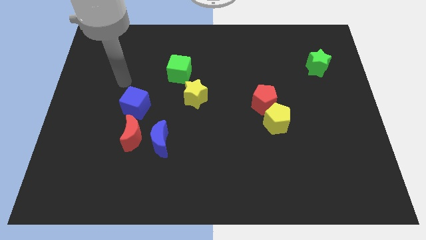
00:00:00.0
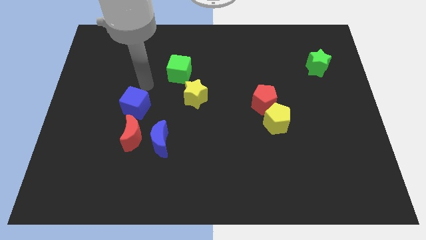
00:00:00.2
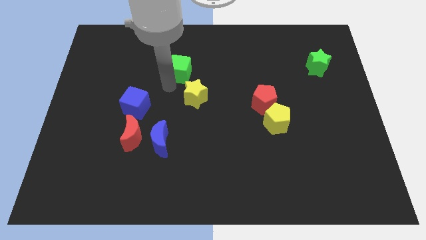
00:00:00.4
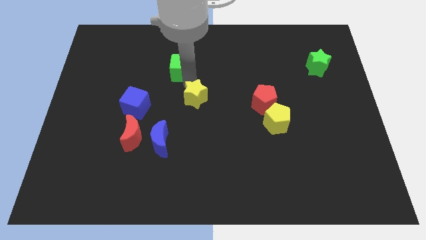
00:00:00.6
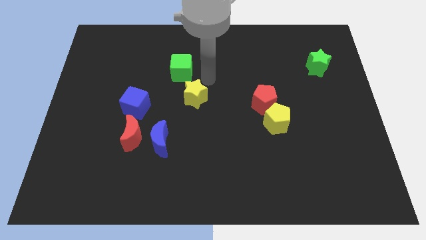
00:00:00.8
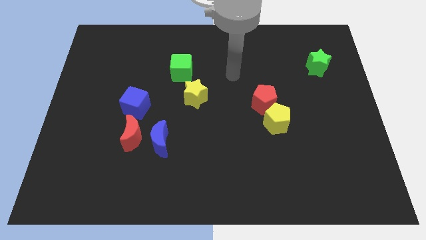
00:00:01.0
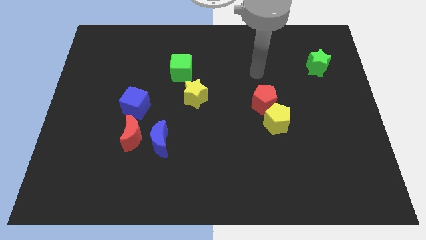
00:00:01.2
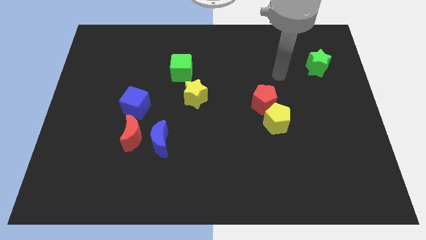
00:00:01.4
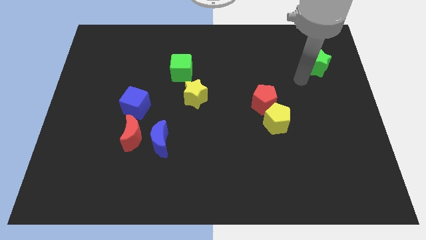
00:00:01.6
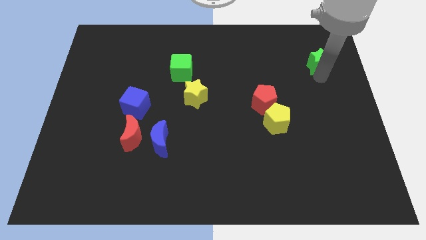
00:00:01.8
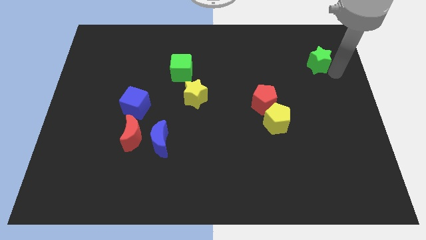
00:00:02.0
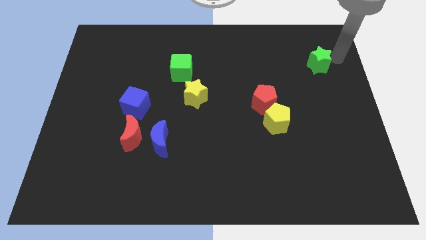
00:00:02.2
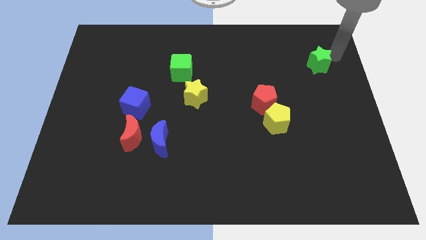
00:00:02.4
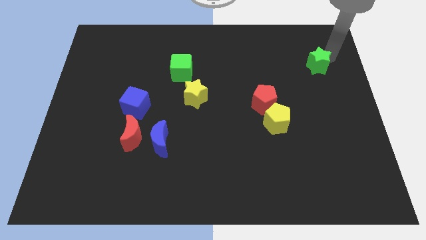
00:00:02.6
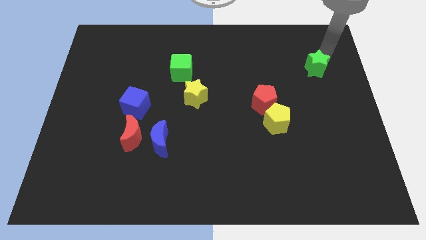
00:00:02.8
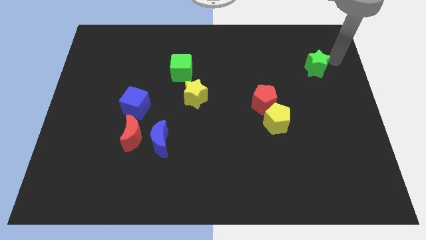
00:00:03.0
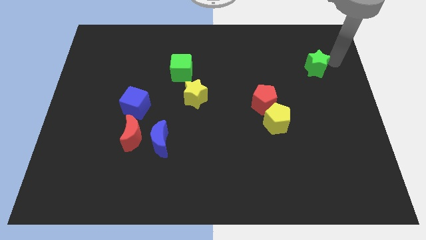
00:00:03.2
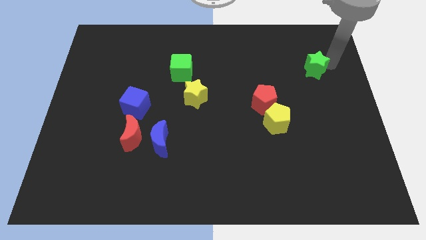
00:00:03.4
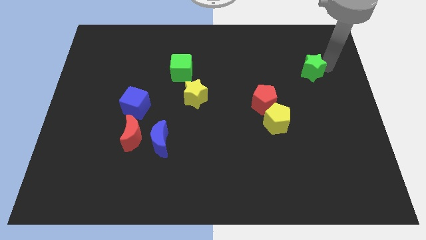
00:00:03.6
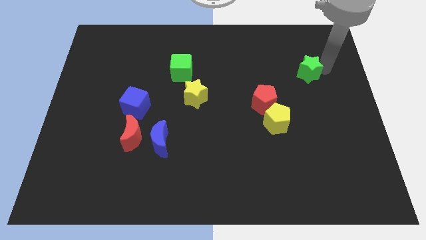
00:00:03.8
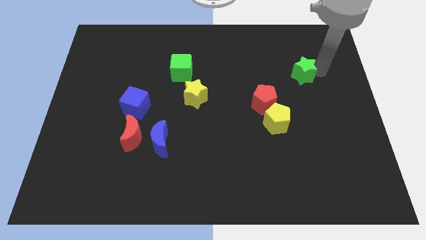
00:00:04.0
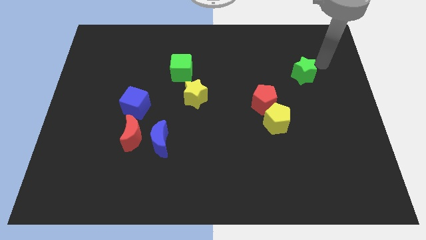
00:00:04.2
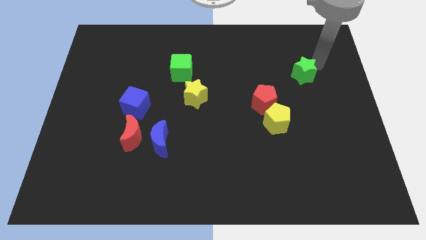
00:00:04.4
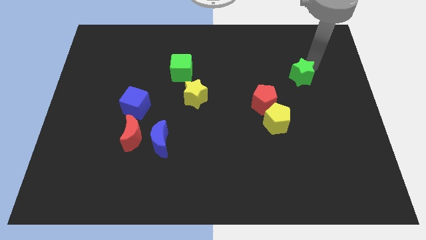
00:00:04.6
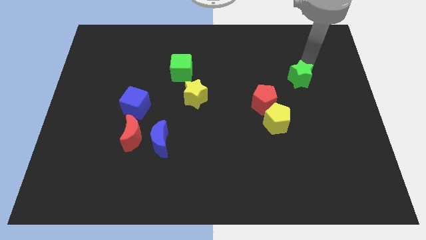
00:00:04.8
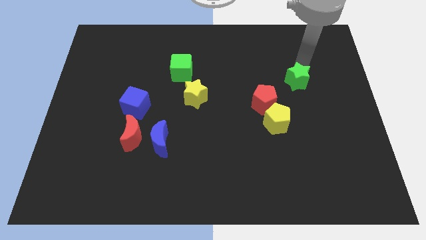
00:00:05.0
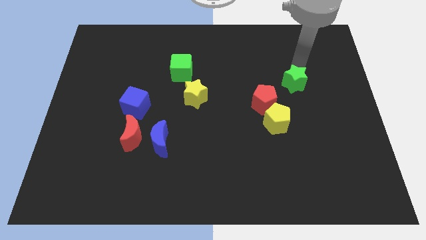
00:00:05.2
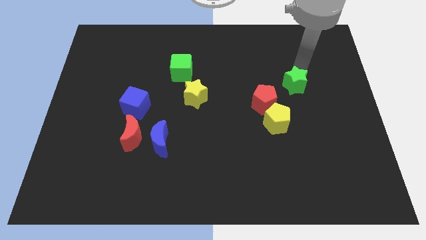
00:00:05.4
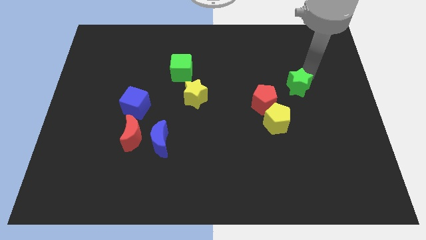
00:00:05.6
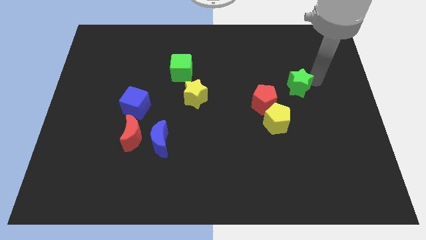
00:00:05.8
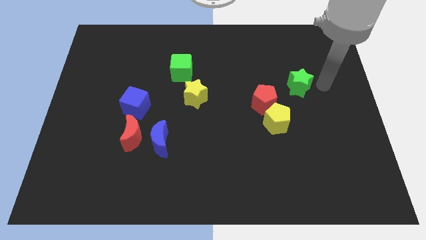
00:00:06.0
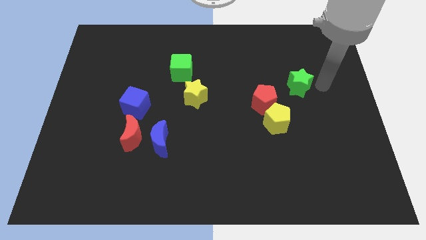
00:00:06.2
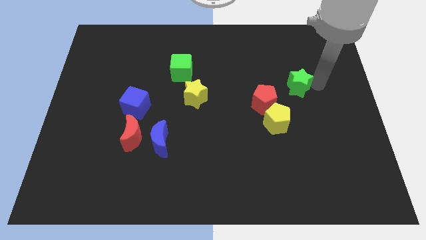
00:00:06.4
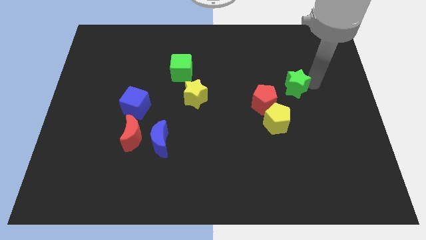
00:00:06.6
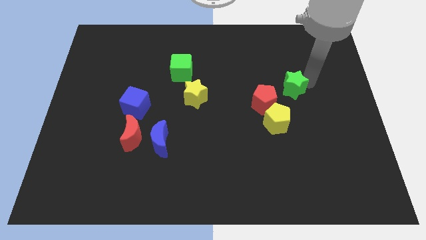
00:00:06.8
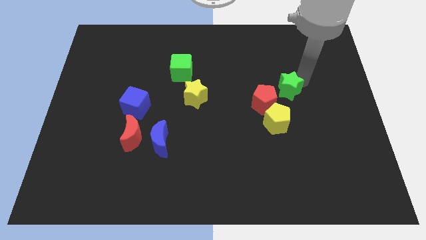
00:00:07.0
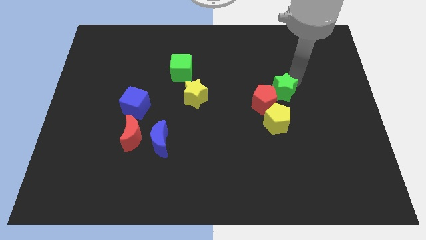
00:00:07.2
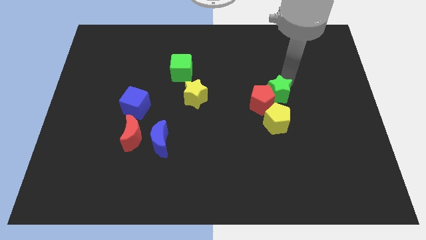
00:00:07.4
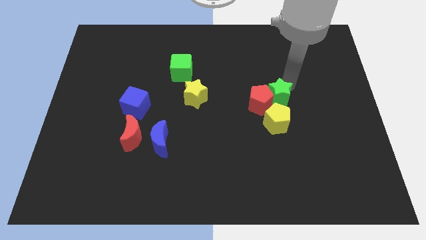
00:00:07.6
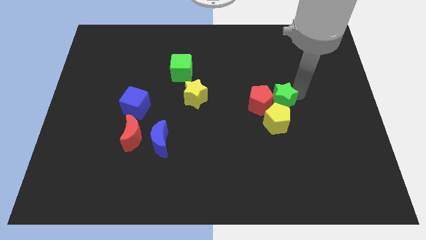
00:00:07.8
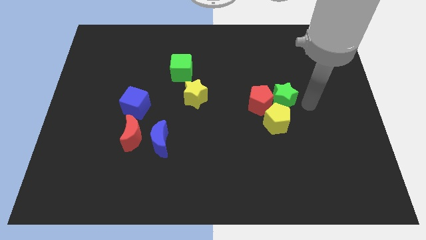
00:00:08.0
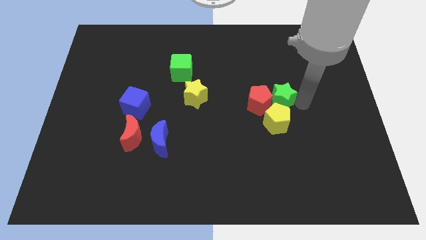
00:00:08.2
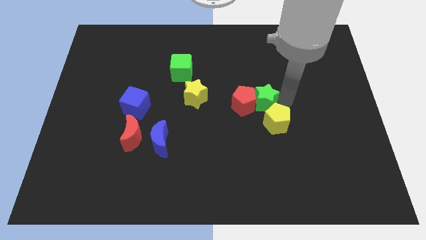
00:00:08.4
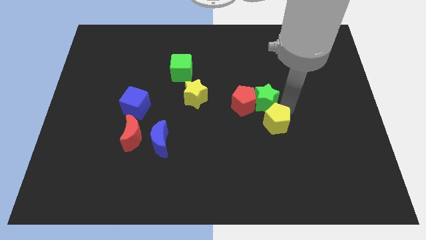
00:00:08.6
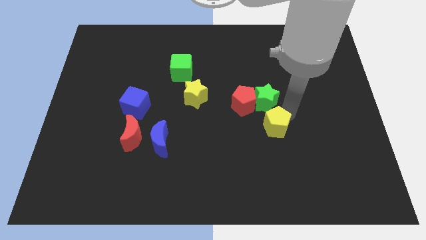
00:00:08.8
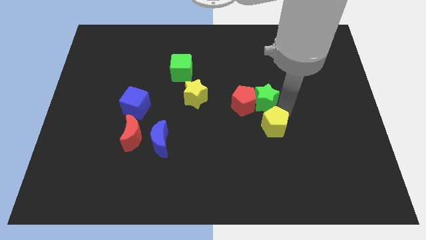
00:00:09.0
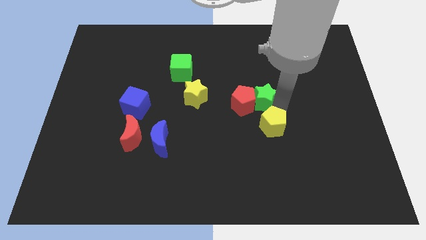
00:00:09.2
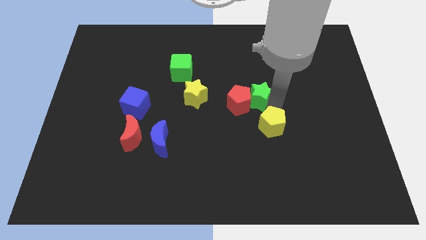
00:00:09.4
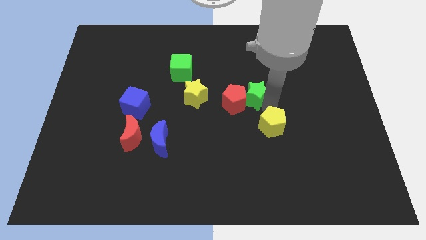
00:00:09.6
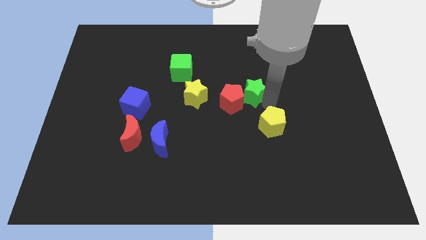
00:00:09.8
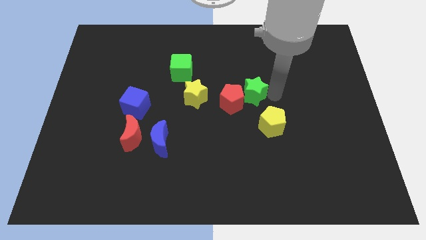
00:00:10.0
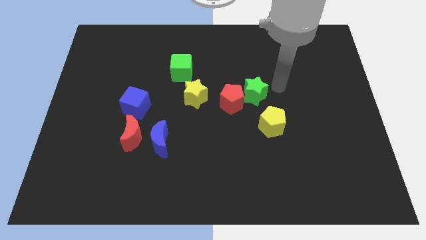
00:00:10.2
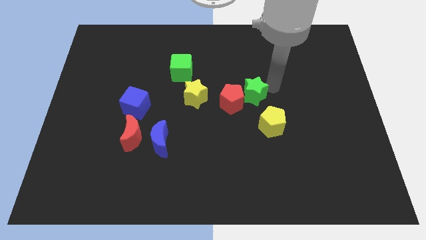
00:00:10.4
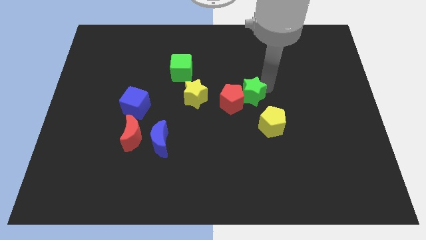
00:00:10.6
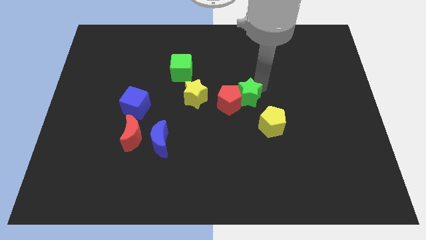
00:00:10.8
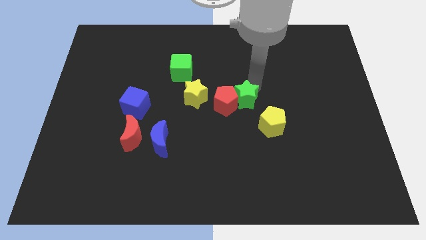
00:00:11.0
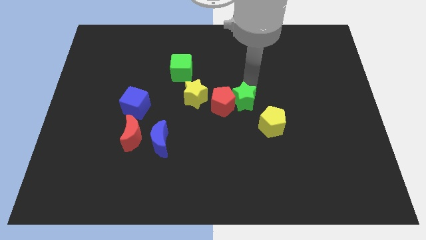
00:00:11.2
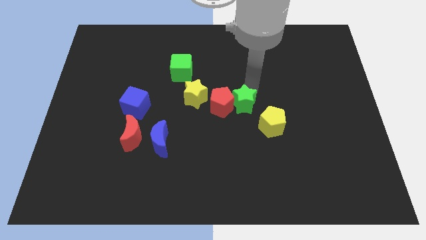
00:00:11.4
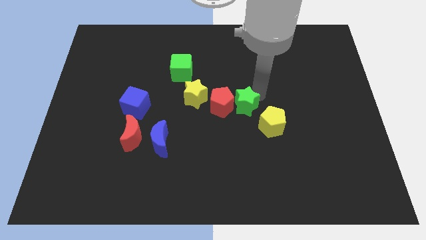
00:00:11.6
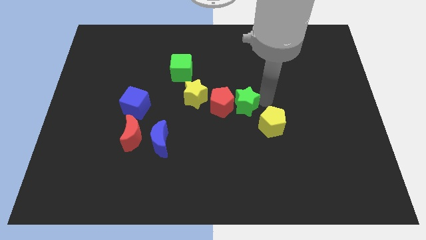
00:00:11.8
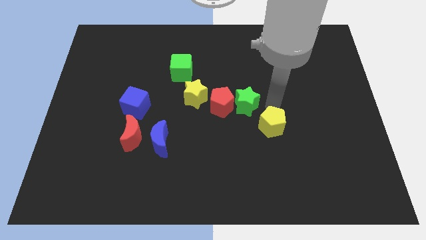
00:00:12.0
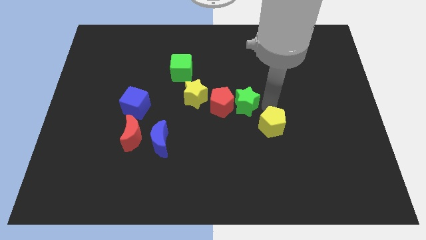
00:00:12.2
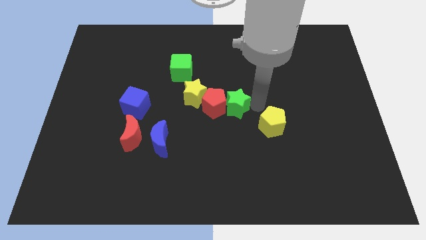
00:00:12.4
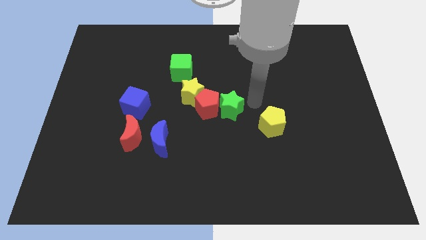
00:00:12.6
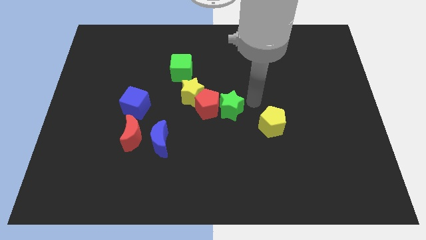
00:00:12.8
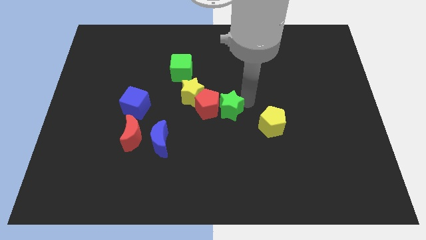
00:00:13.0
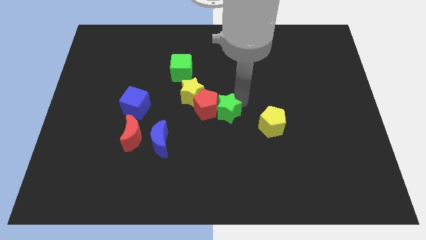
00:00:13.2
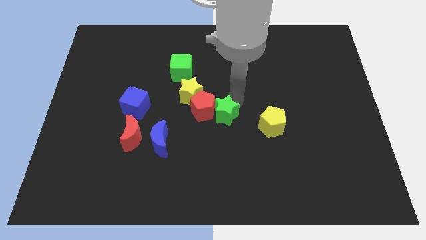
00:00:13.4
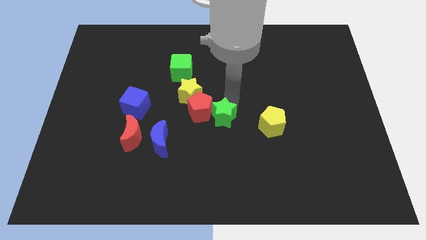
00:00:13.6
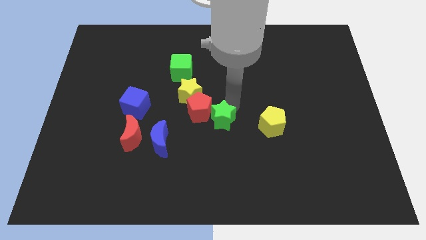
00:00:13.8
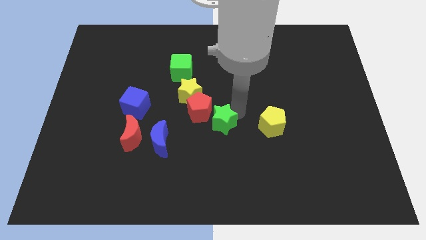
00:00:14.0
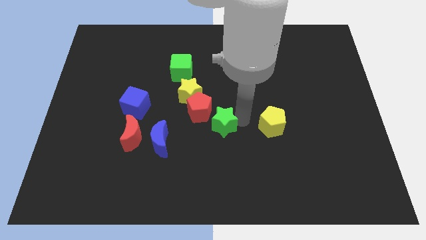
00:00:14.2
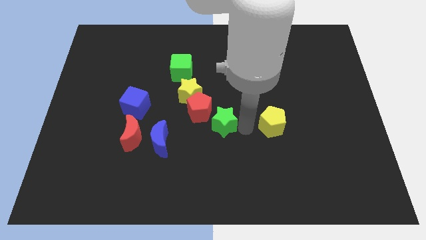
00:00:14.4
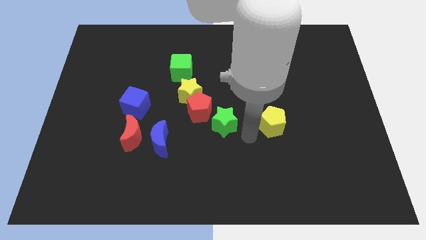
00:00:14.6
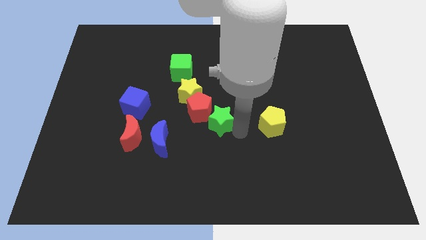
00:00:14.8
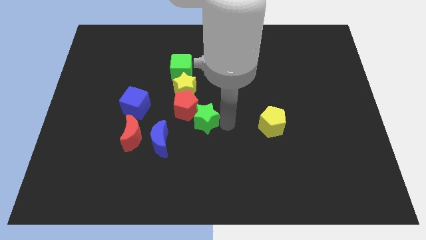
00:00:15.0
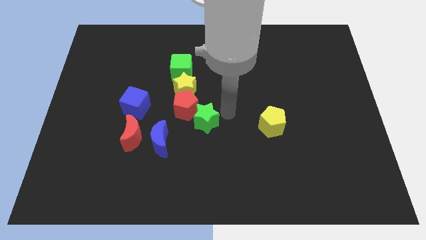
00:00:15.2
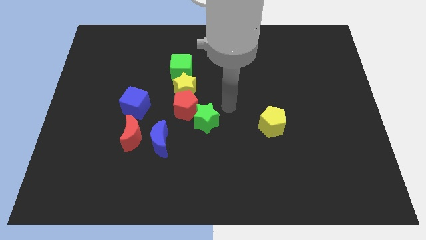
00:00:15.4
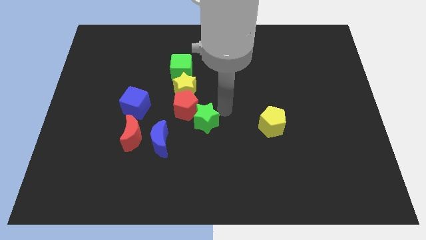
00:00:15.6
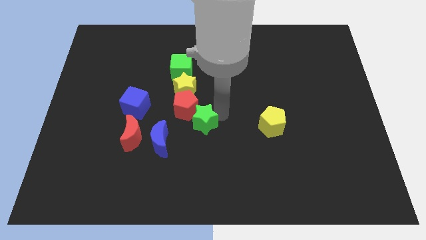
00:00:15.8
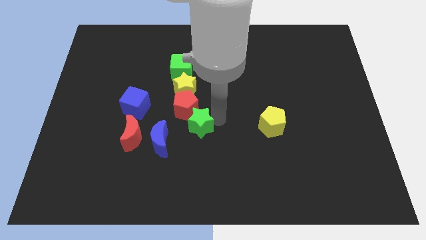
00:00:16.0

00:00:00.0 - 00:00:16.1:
push the green star right of the red moon
